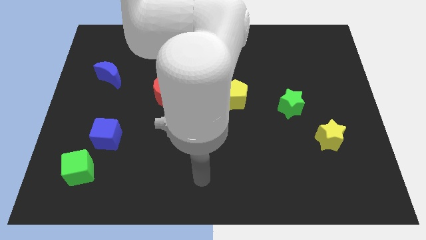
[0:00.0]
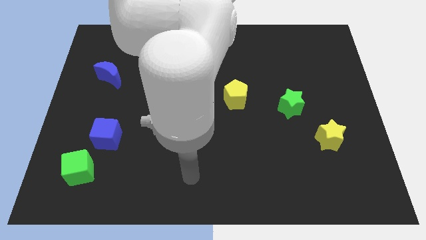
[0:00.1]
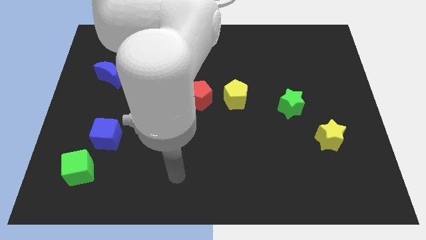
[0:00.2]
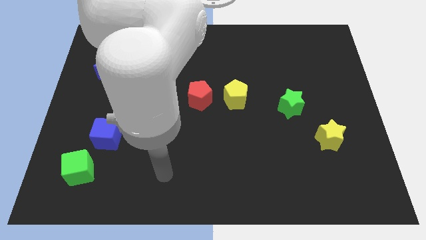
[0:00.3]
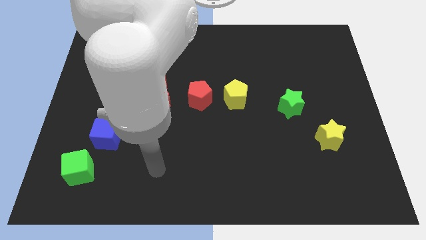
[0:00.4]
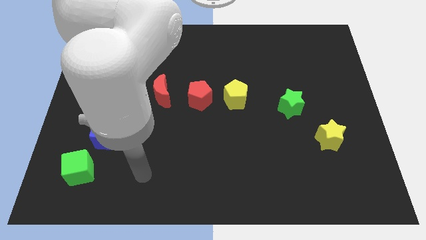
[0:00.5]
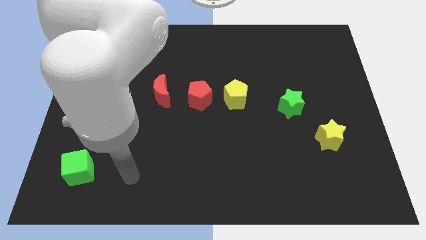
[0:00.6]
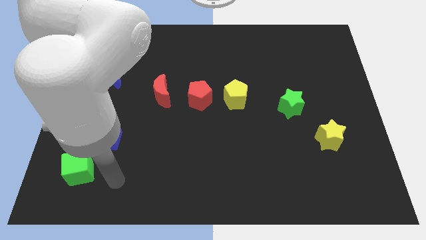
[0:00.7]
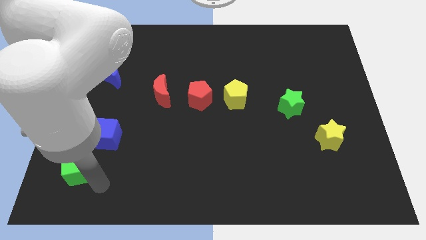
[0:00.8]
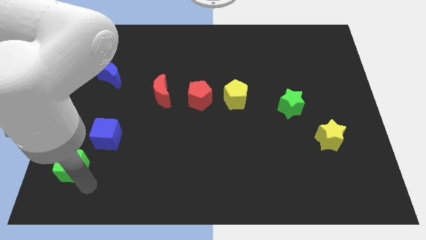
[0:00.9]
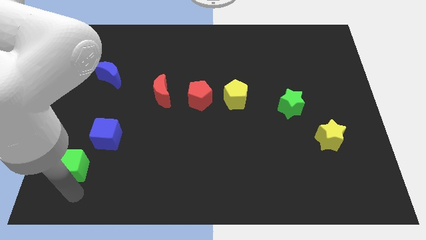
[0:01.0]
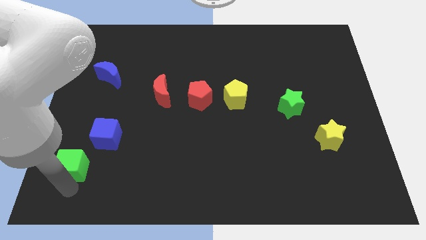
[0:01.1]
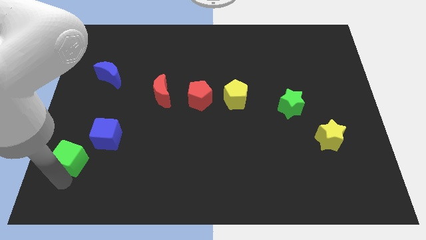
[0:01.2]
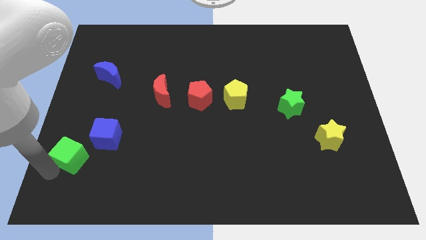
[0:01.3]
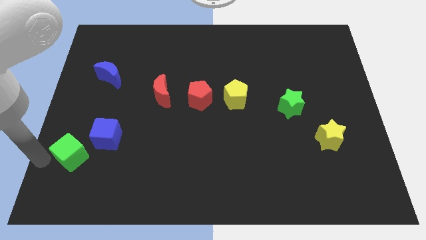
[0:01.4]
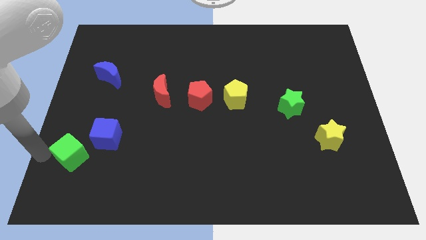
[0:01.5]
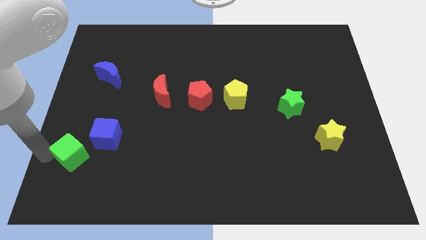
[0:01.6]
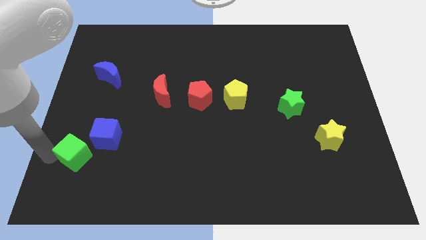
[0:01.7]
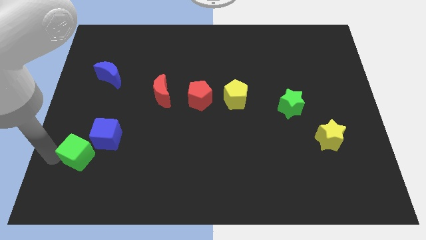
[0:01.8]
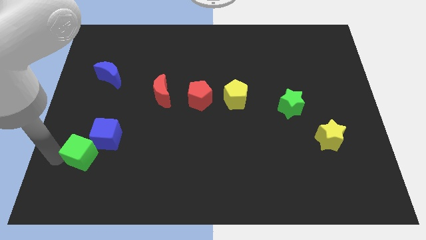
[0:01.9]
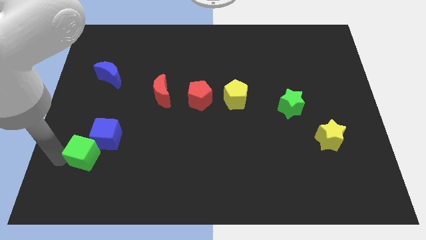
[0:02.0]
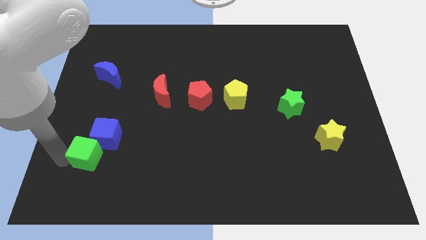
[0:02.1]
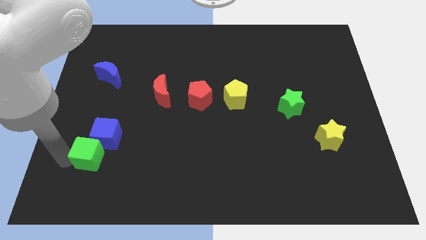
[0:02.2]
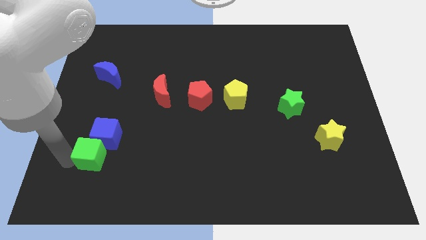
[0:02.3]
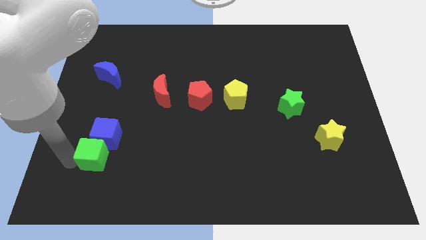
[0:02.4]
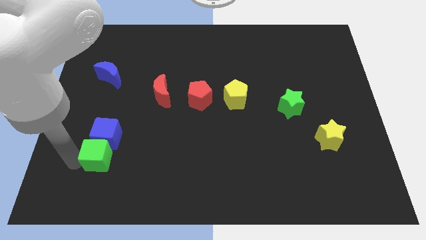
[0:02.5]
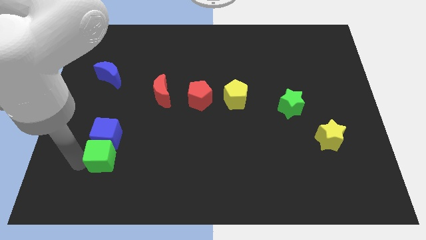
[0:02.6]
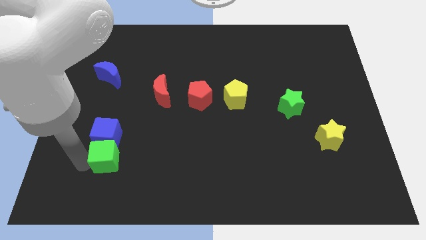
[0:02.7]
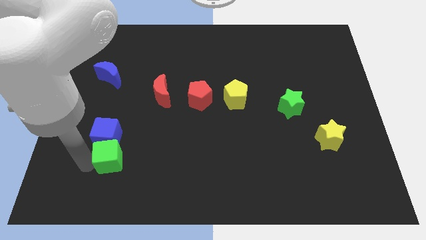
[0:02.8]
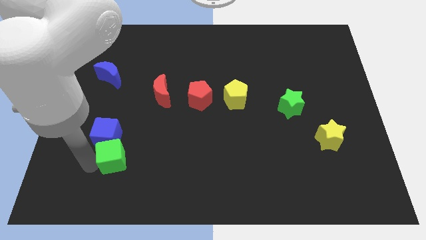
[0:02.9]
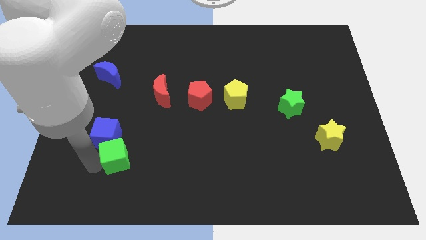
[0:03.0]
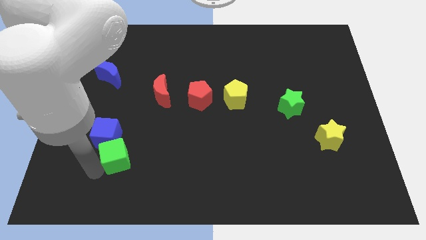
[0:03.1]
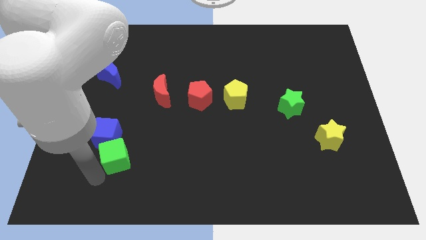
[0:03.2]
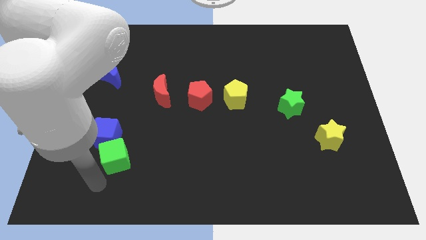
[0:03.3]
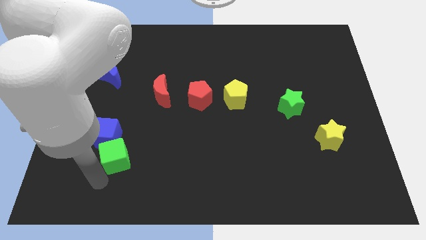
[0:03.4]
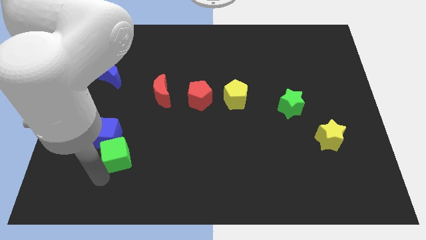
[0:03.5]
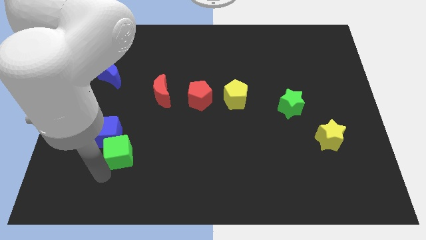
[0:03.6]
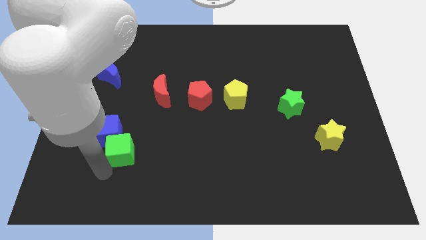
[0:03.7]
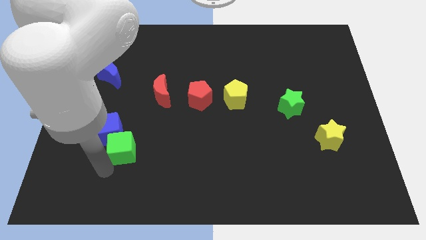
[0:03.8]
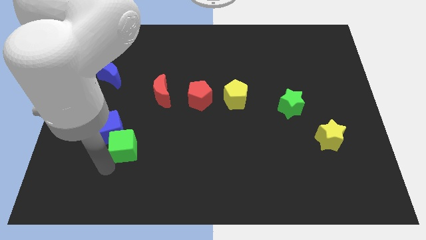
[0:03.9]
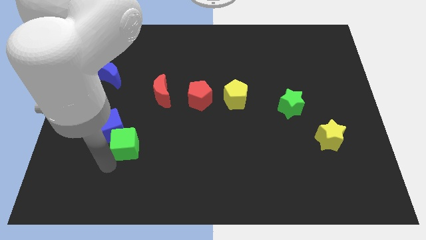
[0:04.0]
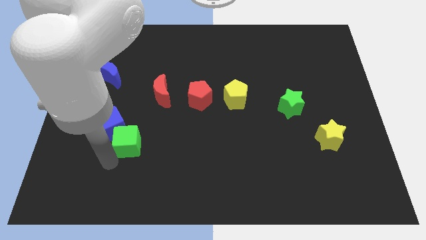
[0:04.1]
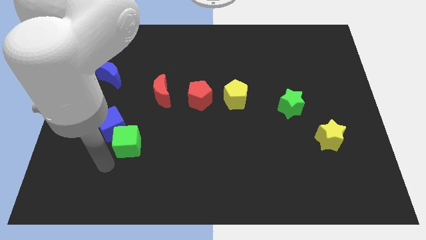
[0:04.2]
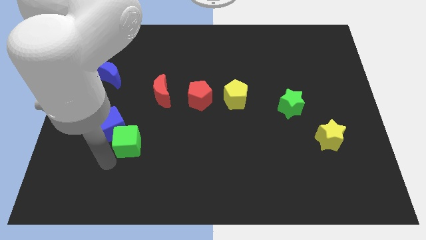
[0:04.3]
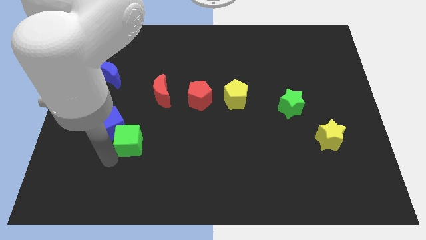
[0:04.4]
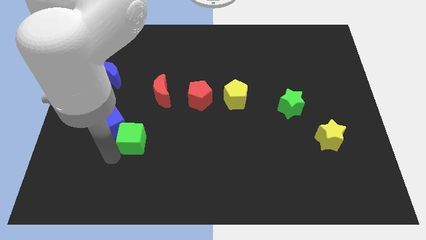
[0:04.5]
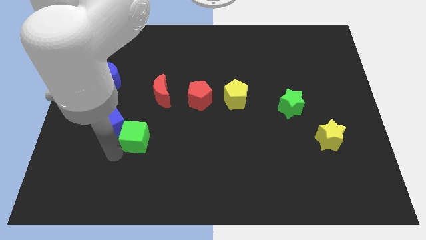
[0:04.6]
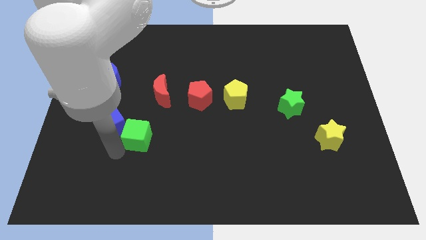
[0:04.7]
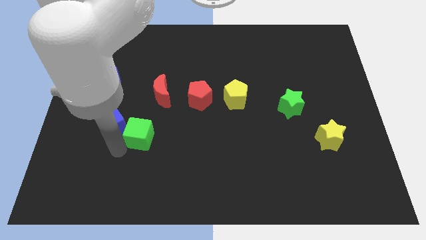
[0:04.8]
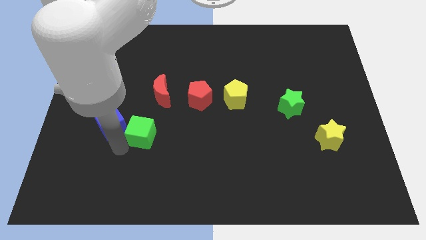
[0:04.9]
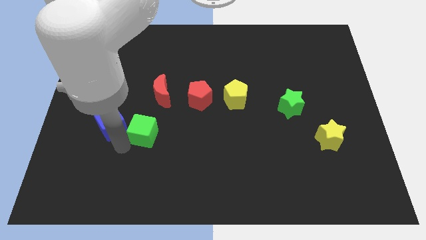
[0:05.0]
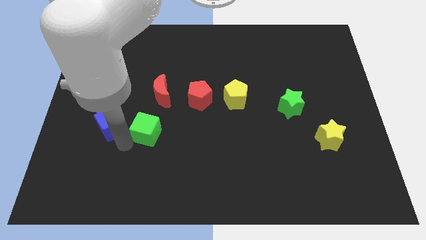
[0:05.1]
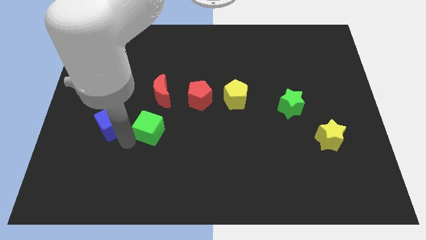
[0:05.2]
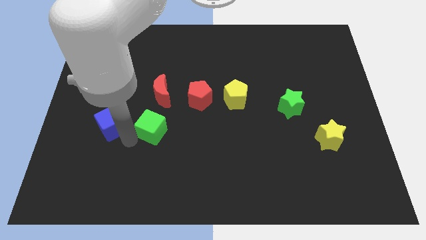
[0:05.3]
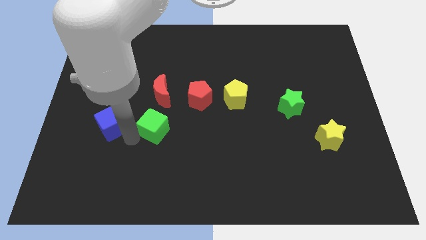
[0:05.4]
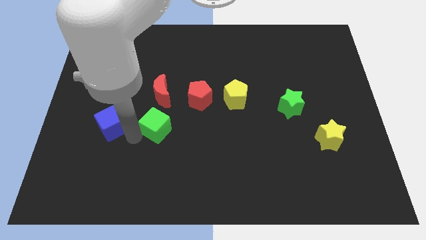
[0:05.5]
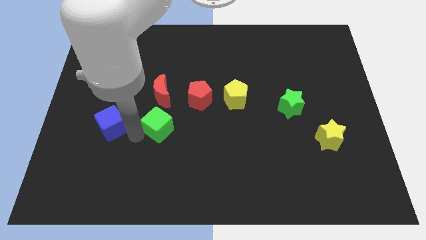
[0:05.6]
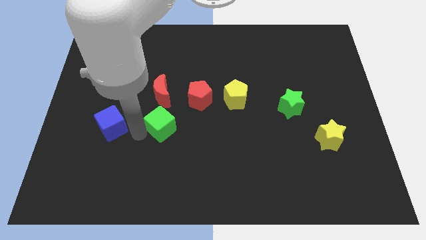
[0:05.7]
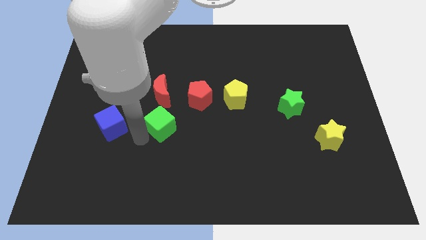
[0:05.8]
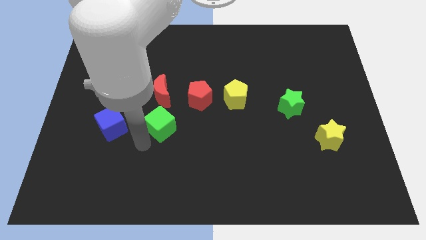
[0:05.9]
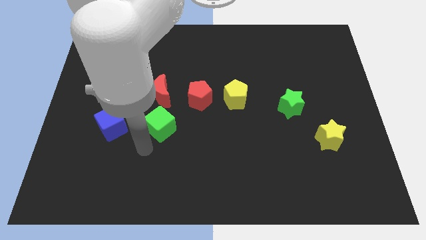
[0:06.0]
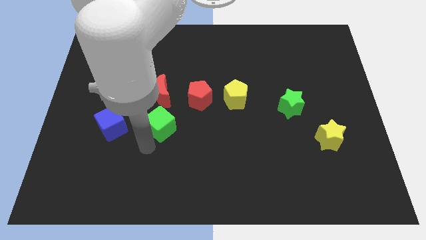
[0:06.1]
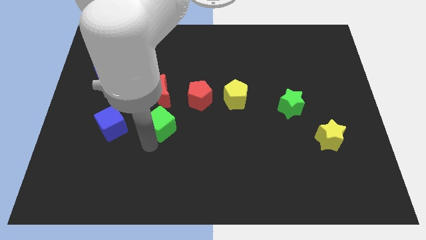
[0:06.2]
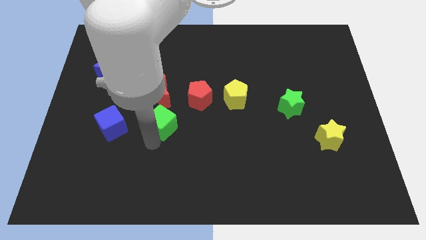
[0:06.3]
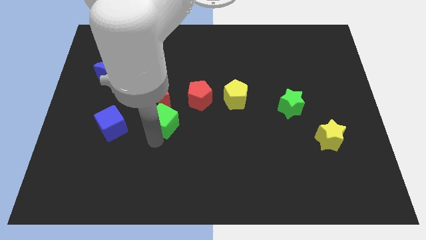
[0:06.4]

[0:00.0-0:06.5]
push the green cube up and then to the right

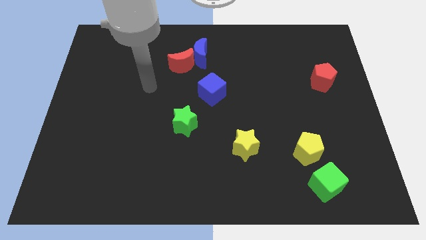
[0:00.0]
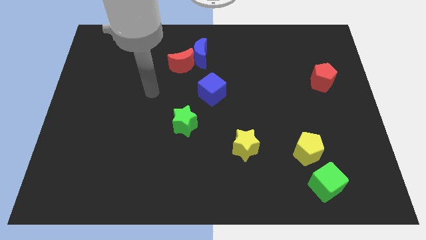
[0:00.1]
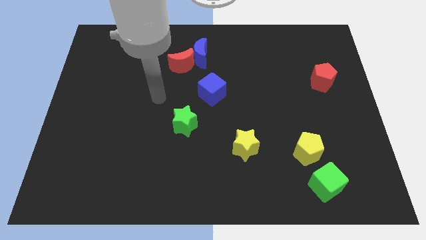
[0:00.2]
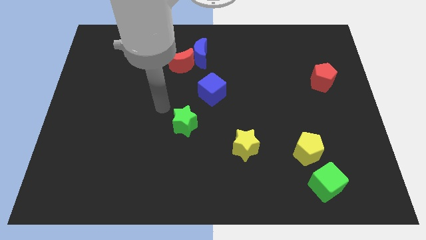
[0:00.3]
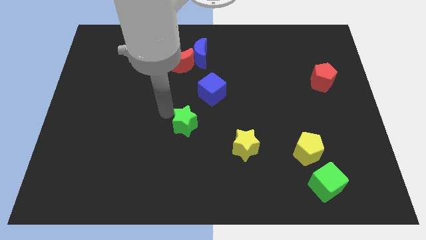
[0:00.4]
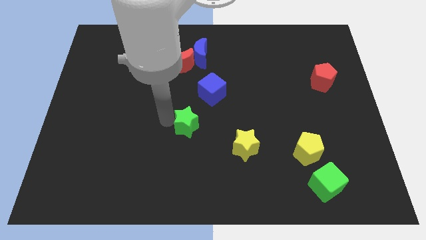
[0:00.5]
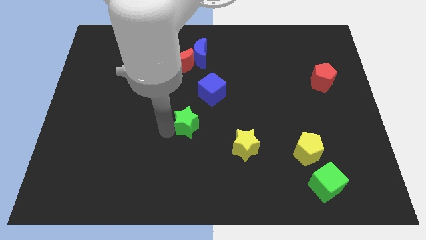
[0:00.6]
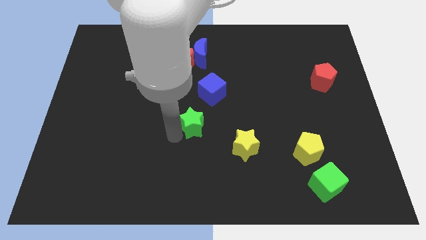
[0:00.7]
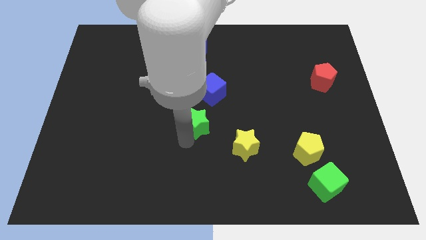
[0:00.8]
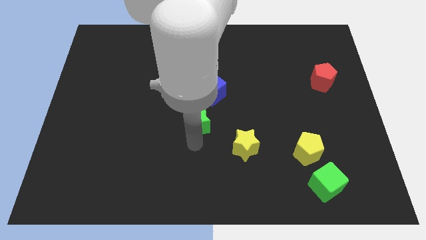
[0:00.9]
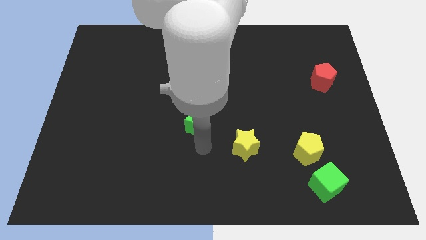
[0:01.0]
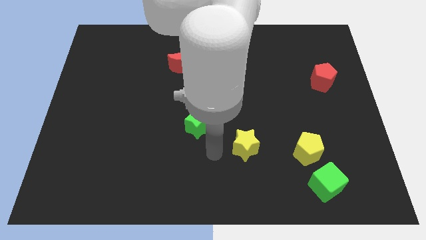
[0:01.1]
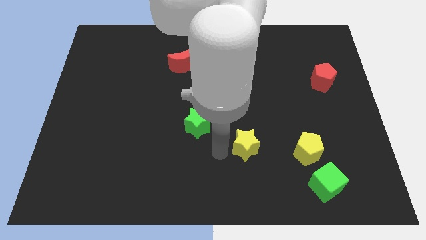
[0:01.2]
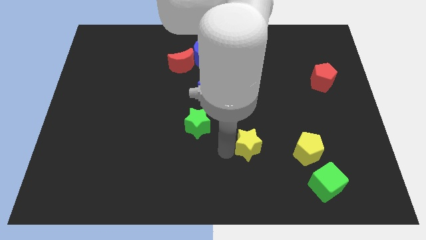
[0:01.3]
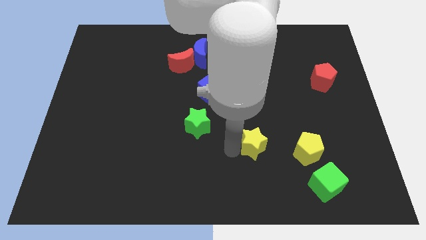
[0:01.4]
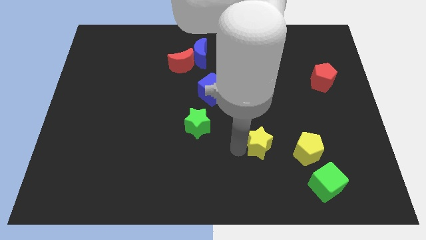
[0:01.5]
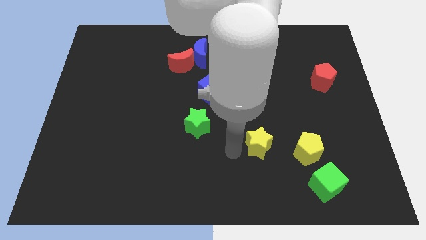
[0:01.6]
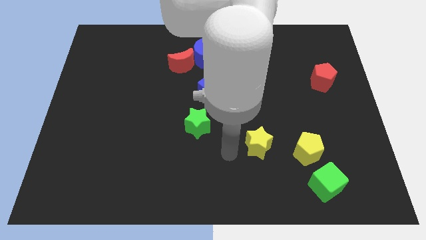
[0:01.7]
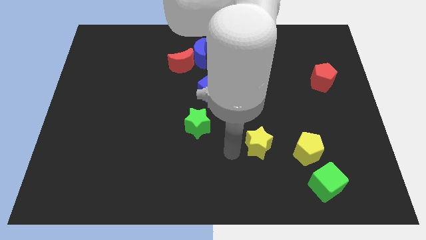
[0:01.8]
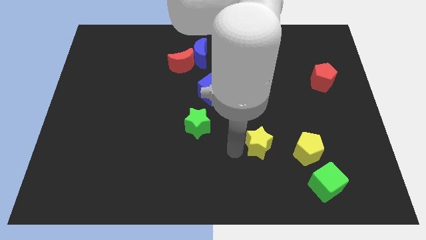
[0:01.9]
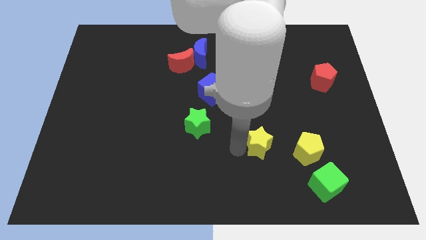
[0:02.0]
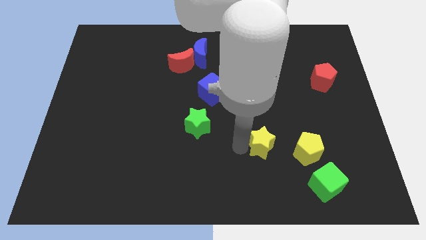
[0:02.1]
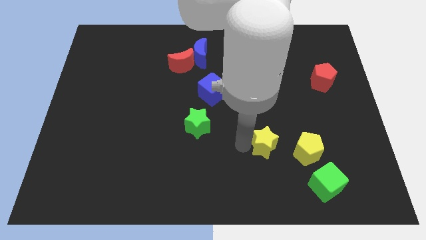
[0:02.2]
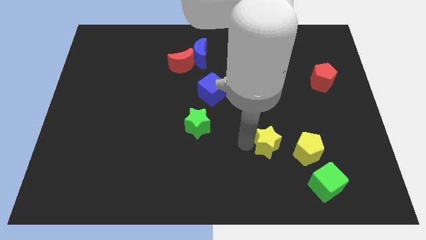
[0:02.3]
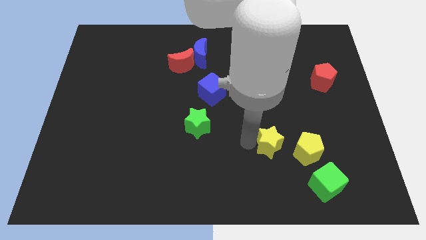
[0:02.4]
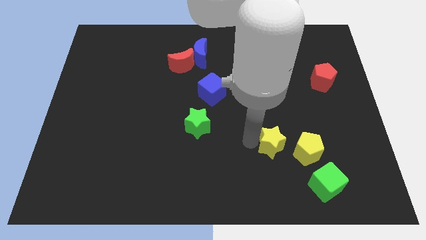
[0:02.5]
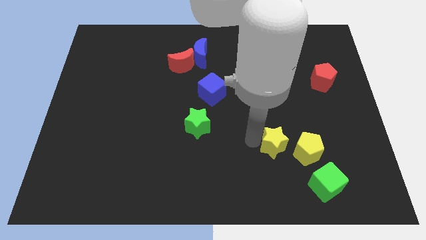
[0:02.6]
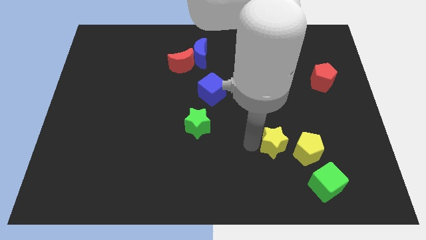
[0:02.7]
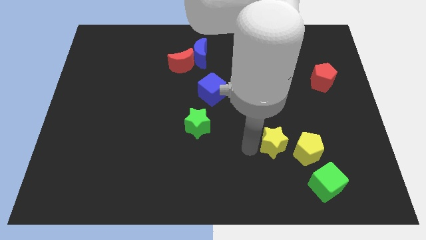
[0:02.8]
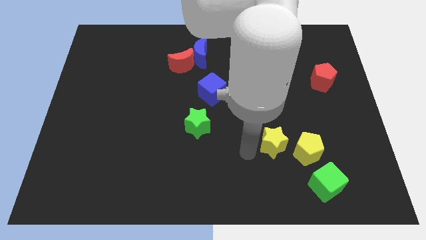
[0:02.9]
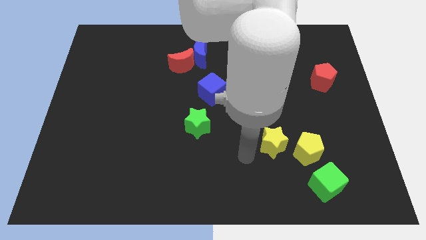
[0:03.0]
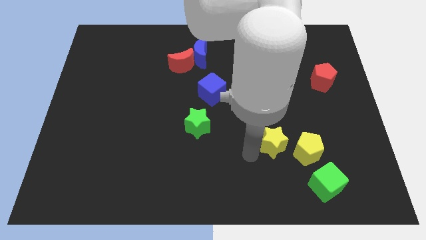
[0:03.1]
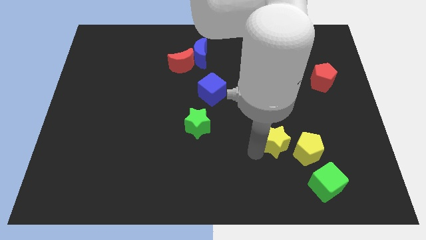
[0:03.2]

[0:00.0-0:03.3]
slightly move the yellow star to the right
